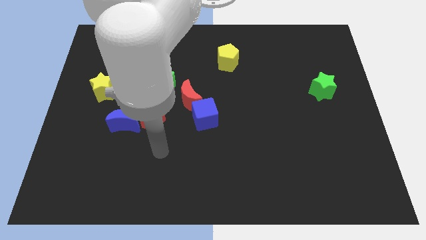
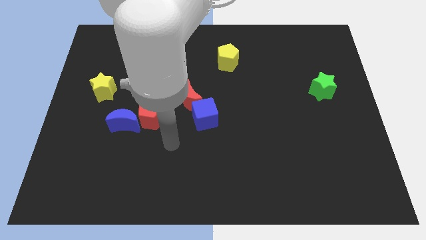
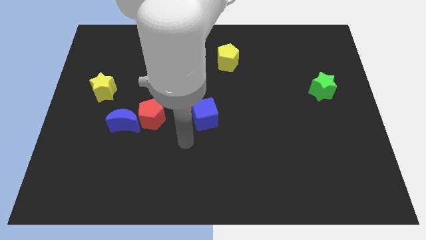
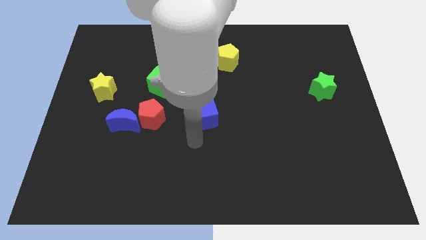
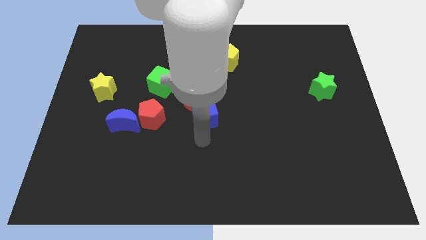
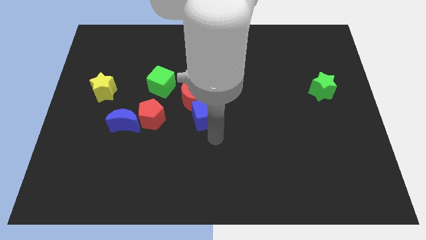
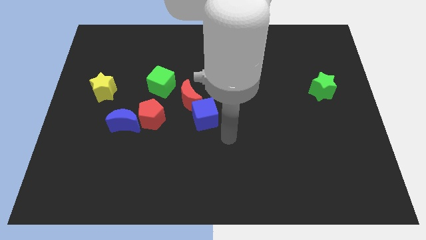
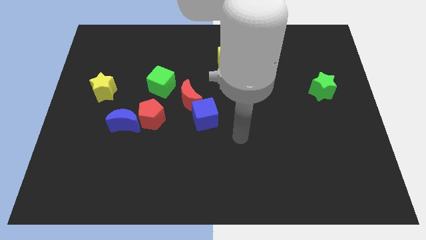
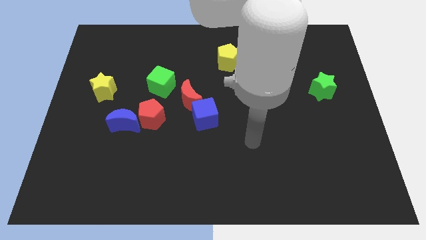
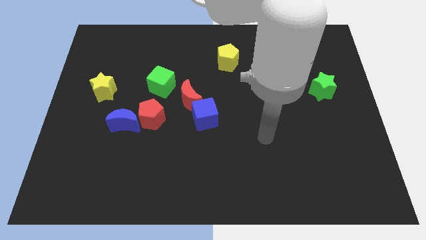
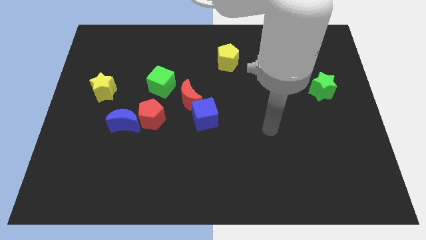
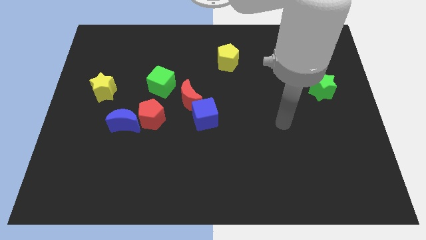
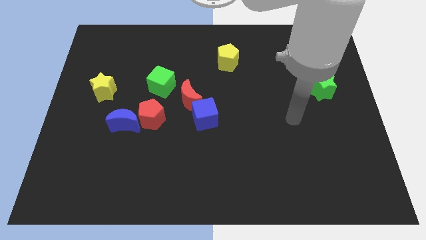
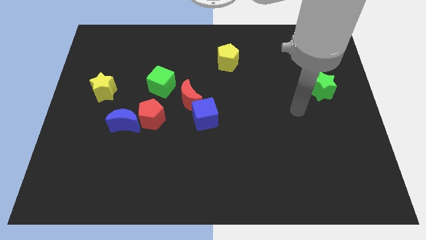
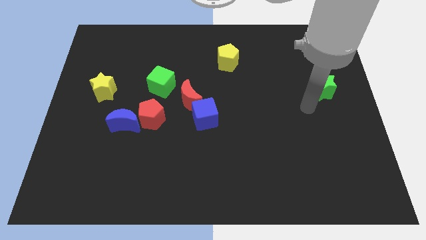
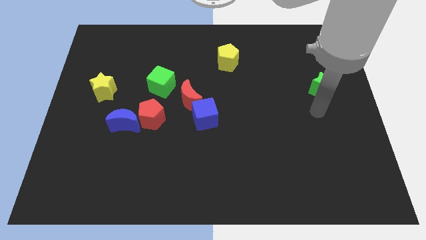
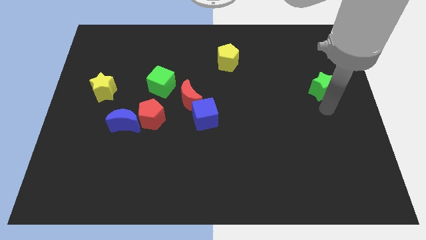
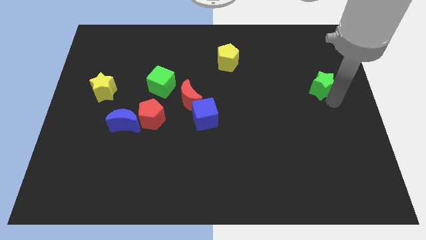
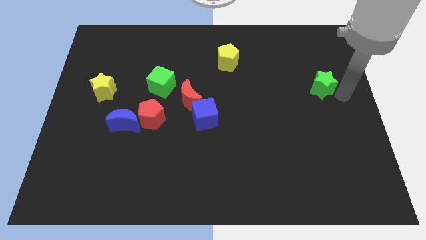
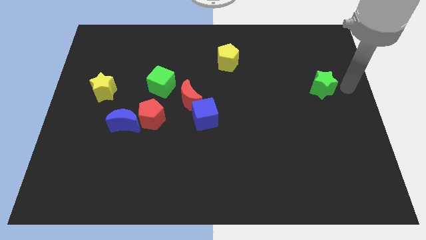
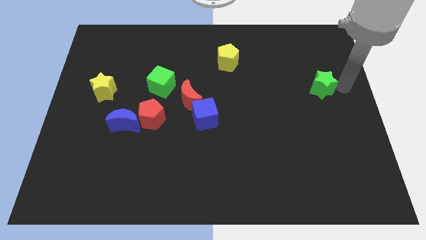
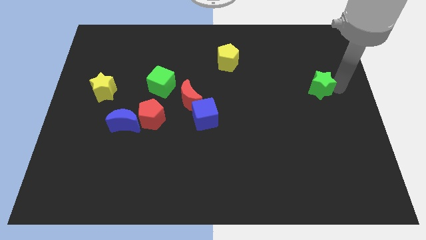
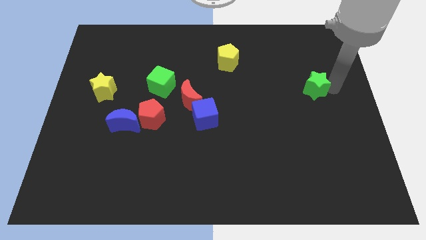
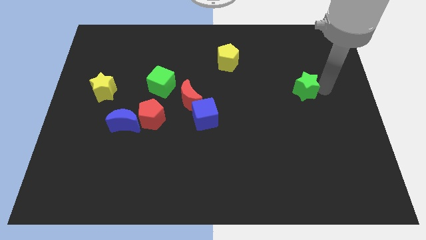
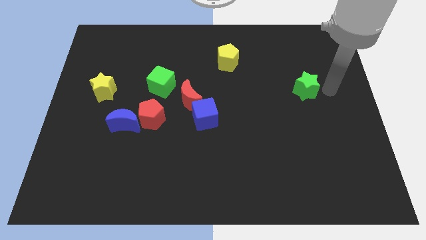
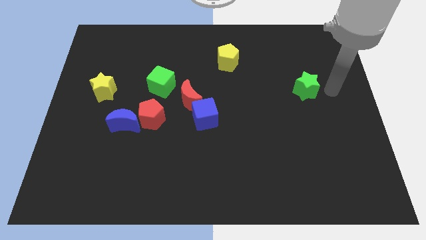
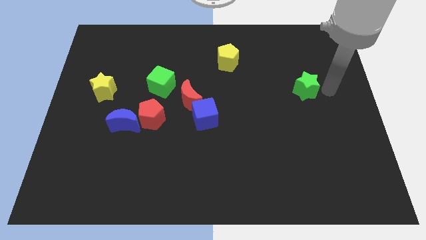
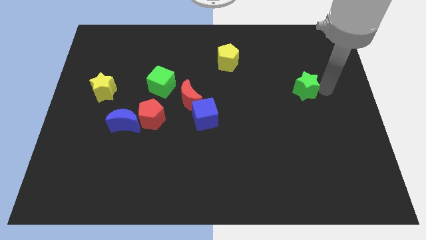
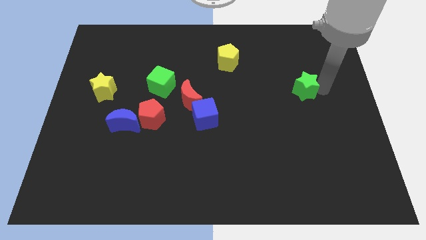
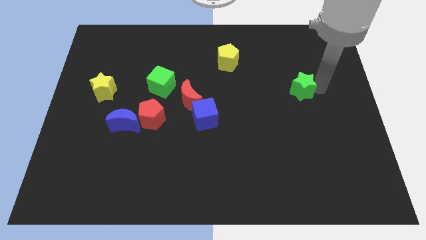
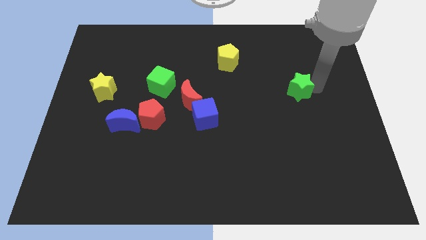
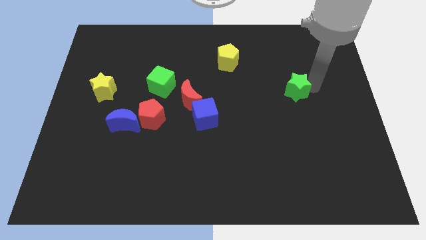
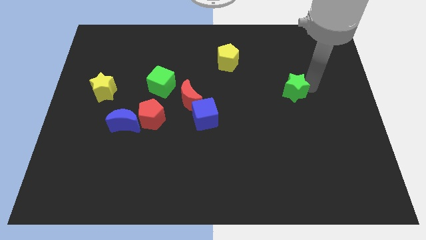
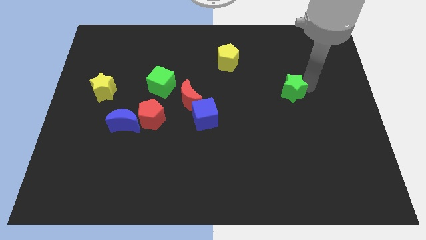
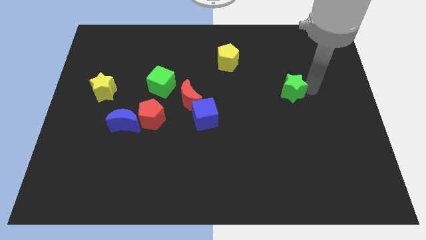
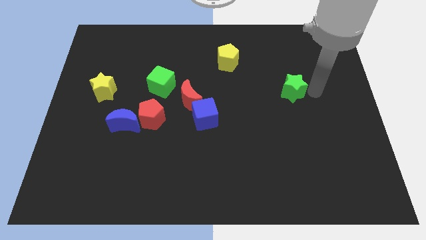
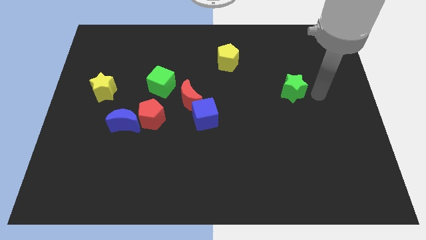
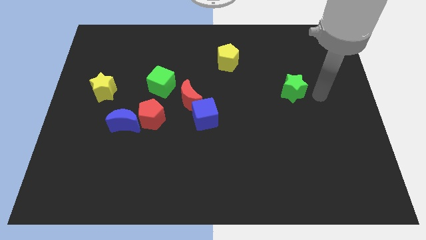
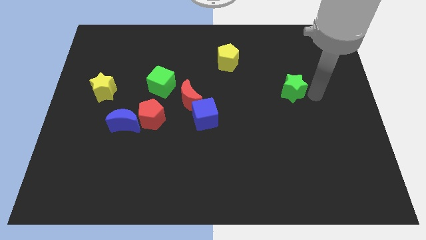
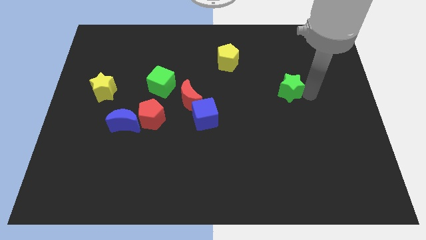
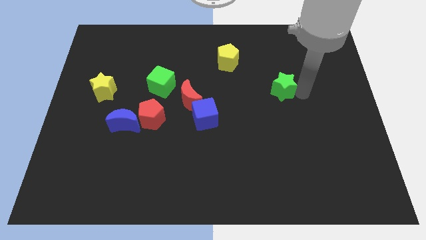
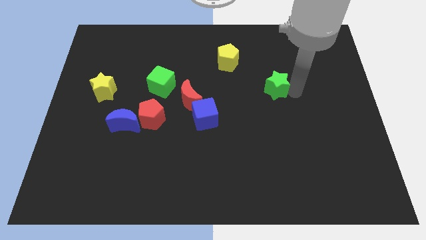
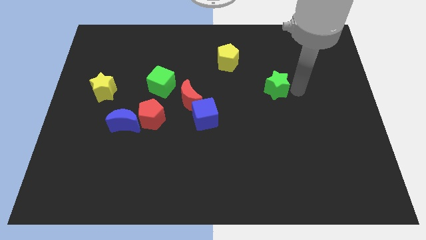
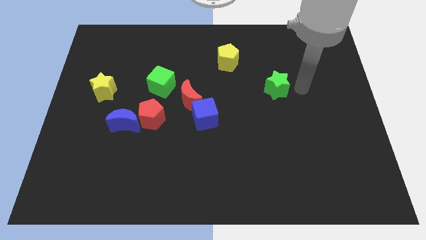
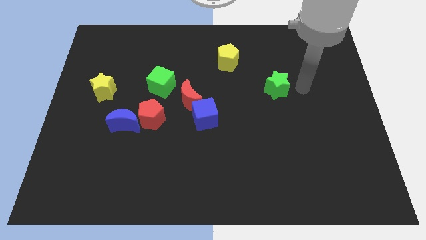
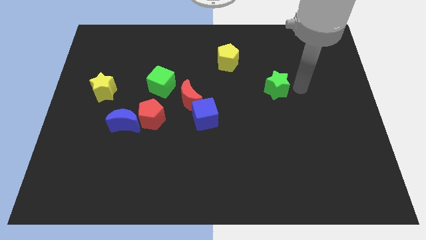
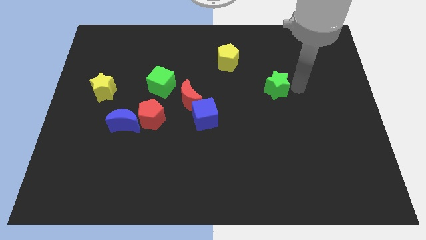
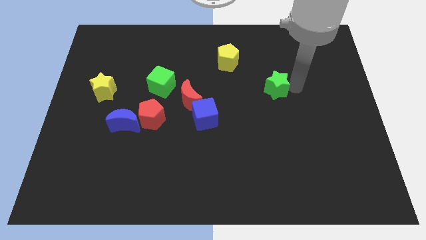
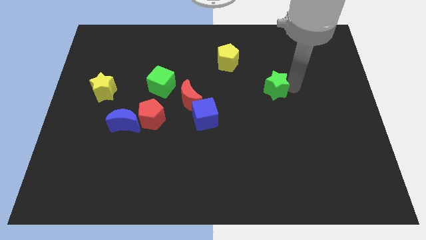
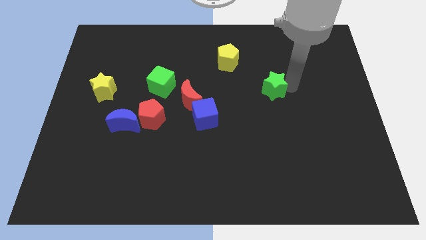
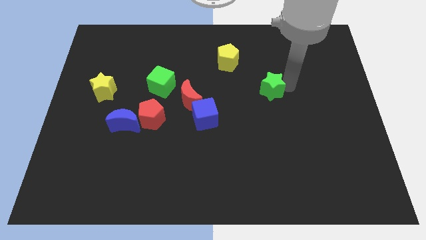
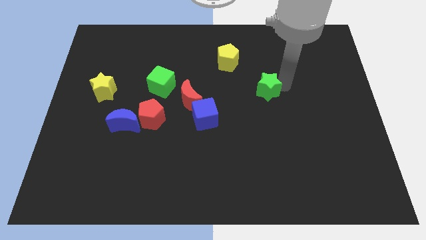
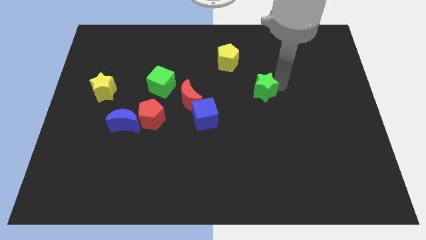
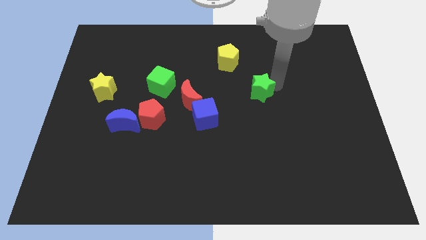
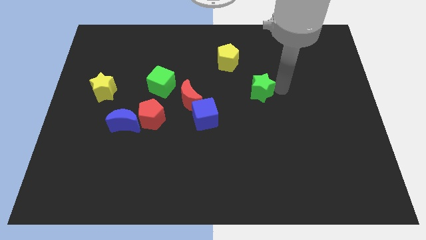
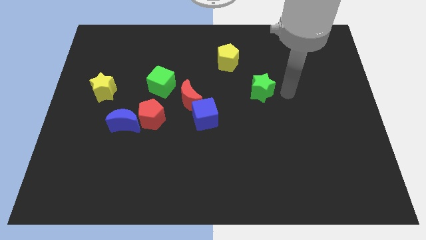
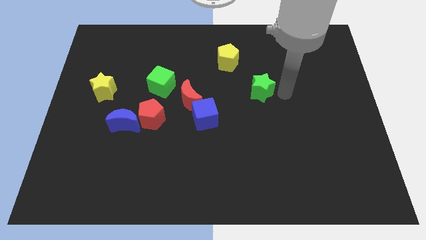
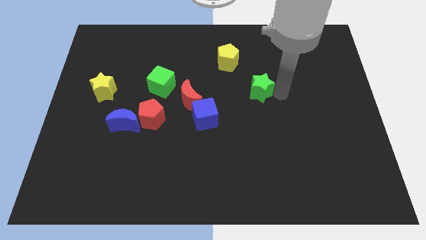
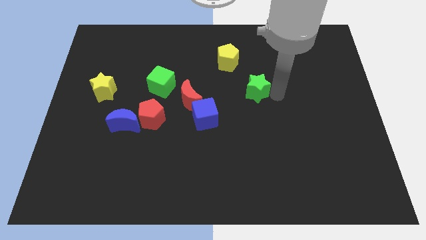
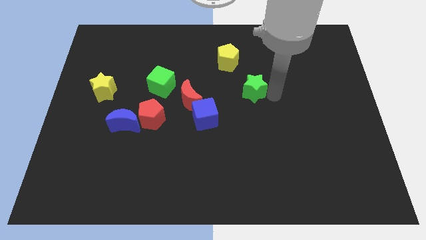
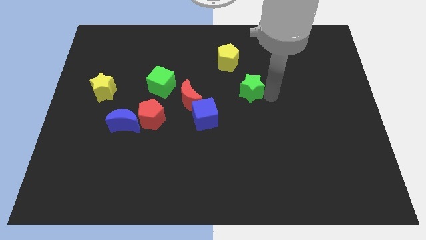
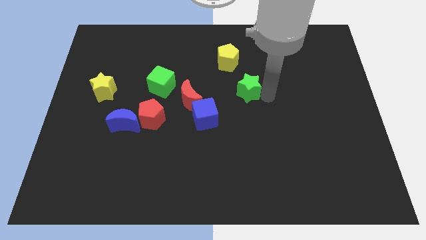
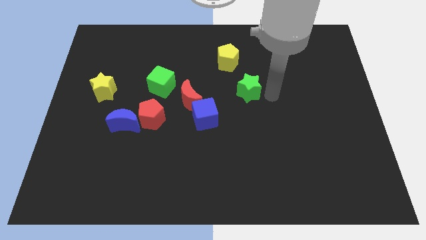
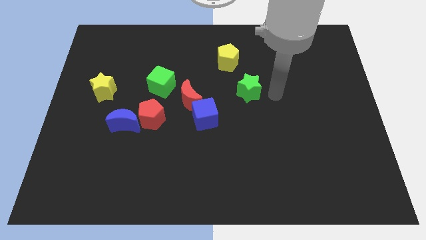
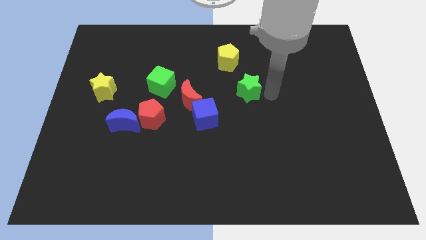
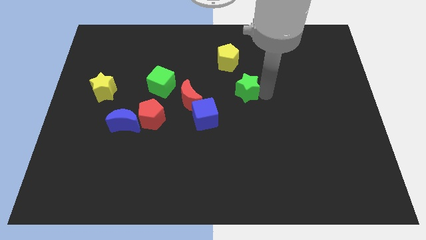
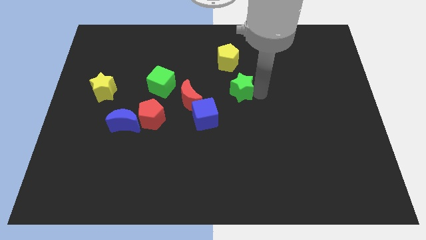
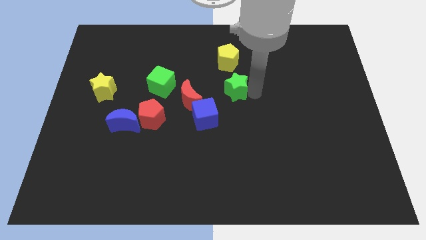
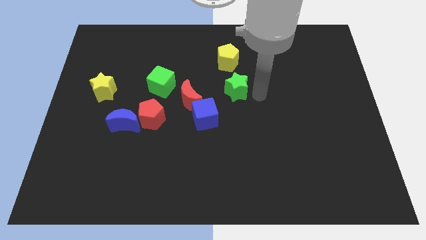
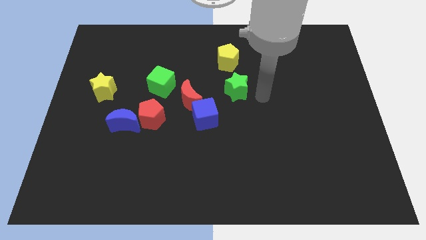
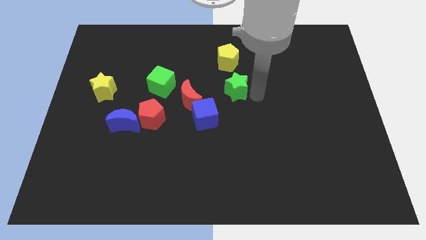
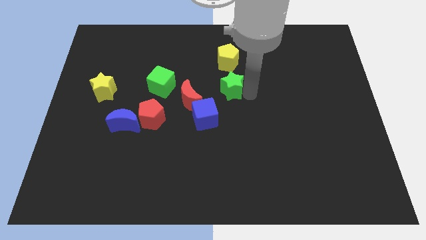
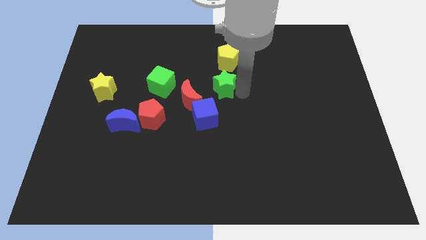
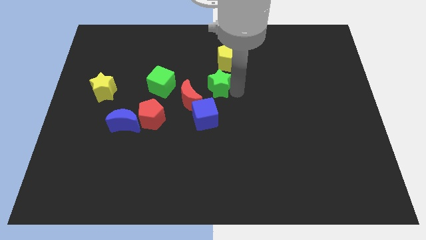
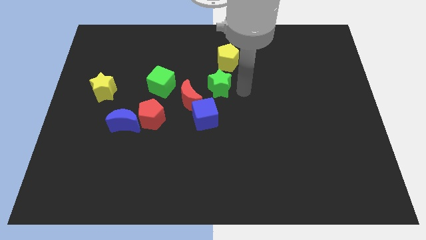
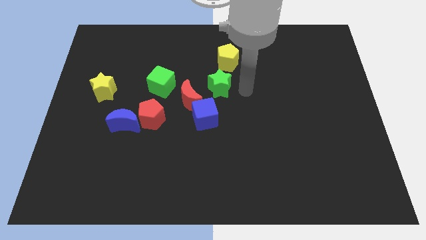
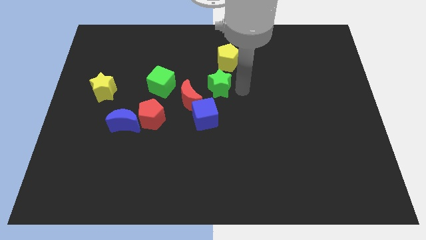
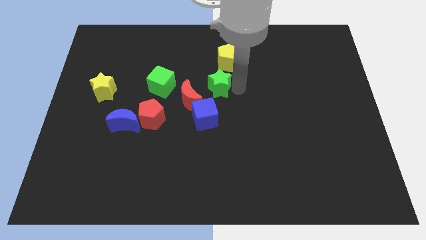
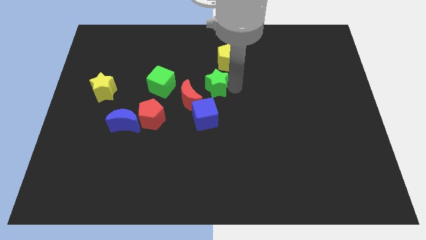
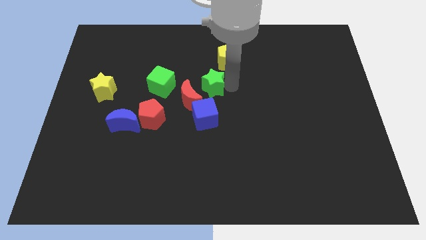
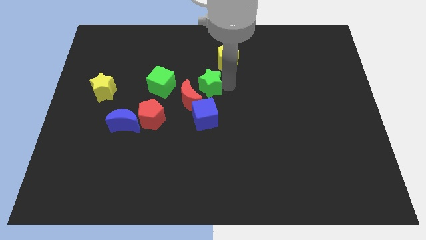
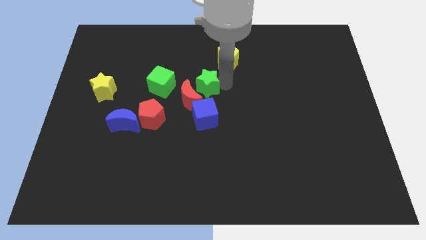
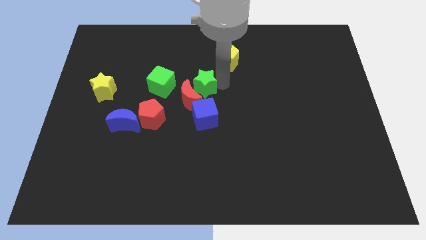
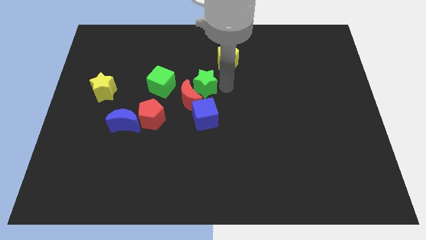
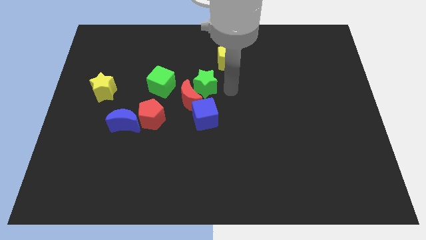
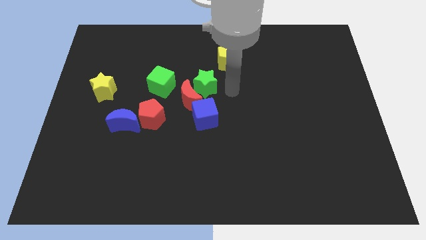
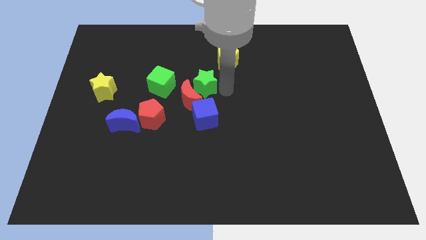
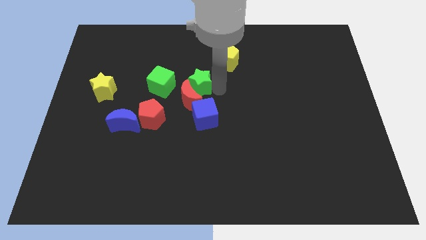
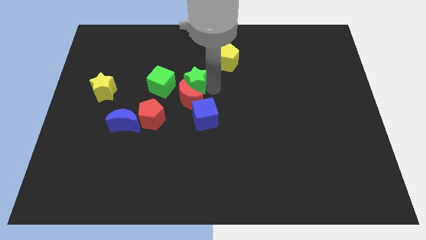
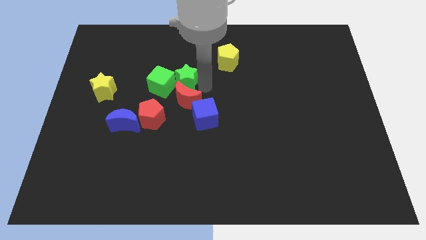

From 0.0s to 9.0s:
slide the green star close to the green cube
